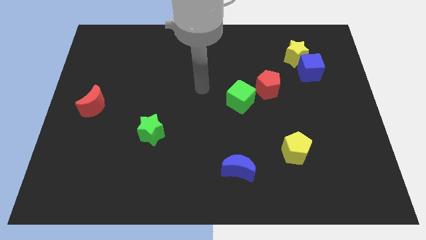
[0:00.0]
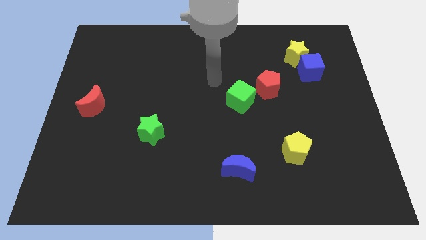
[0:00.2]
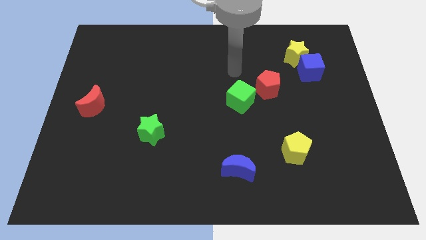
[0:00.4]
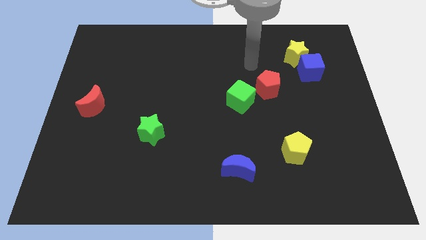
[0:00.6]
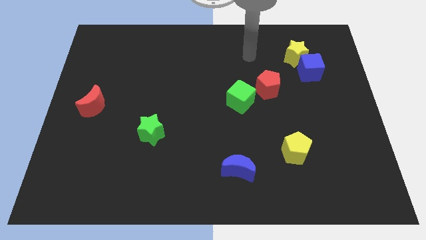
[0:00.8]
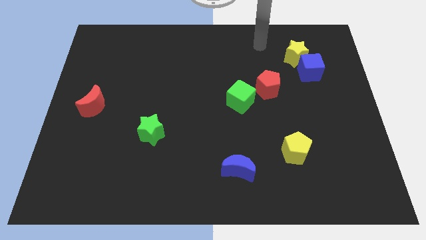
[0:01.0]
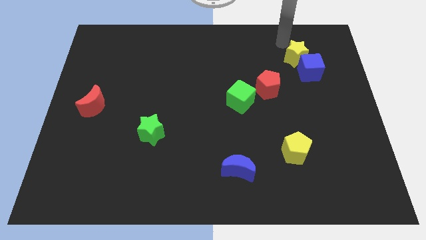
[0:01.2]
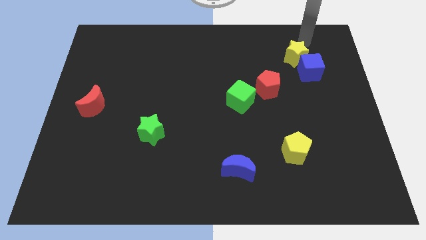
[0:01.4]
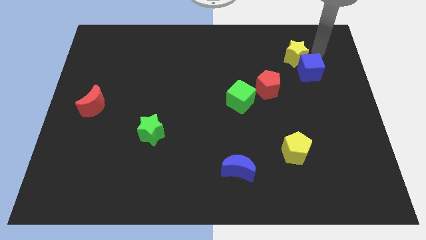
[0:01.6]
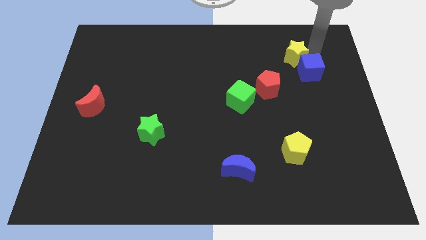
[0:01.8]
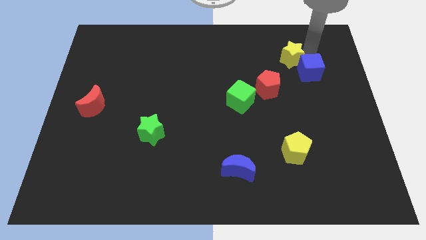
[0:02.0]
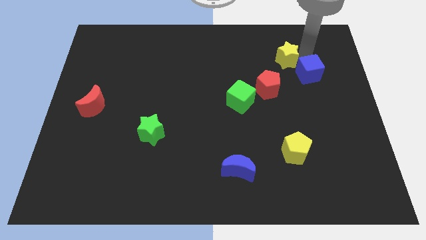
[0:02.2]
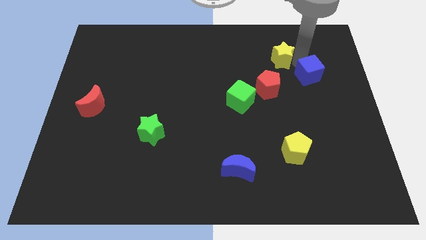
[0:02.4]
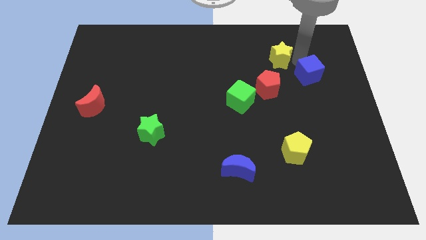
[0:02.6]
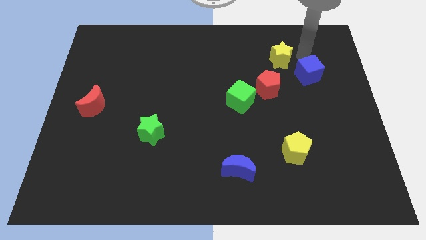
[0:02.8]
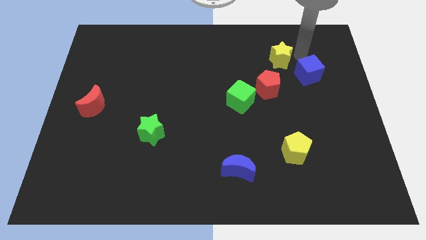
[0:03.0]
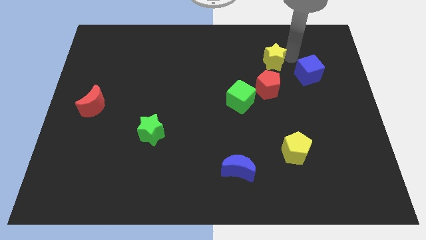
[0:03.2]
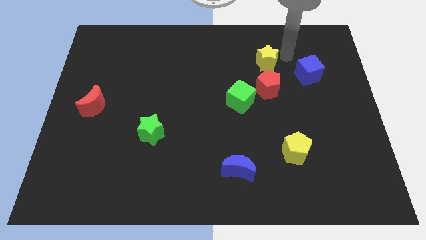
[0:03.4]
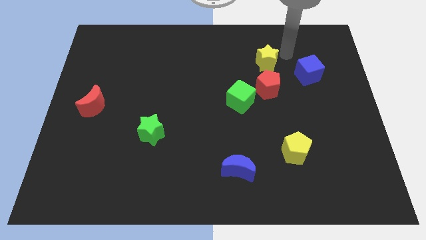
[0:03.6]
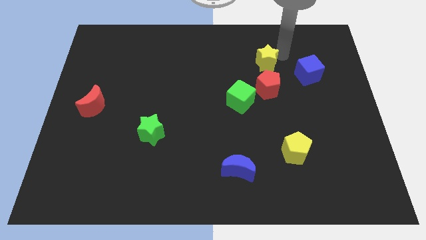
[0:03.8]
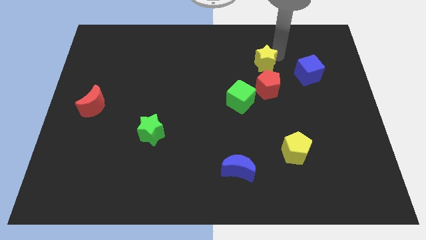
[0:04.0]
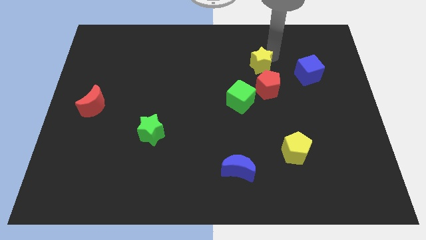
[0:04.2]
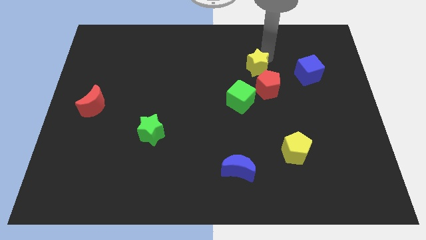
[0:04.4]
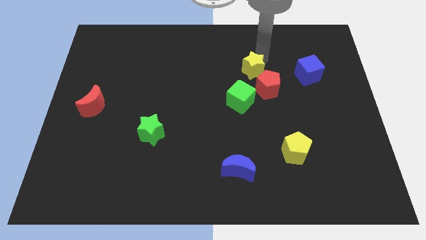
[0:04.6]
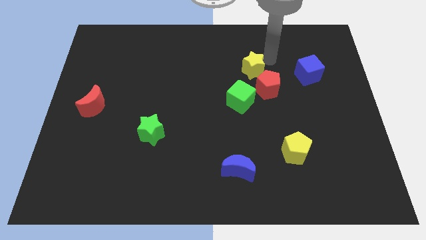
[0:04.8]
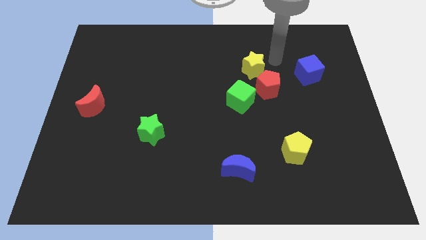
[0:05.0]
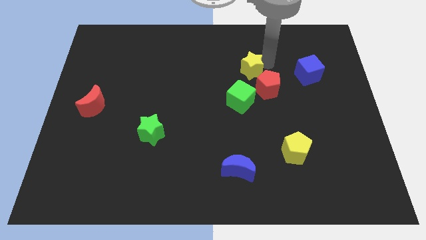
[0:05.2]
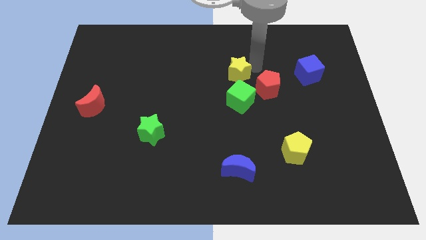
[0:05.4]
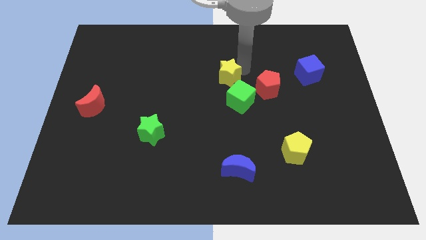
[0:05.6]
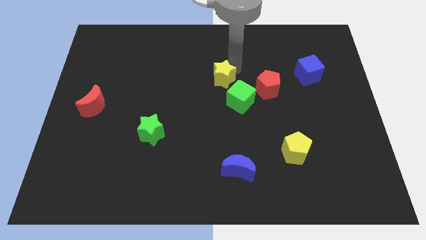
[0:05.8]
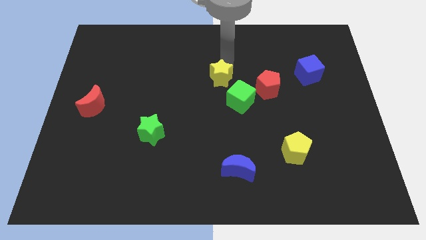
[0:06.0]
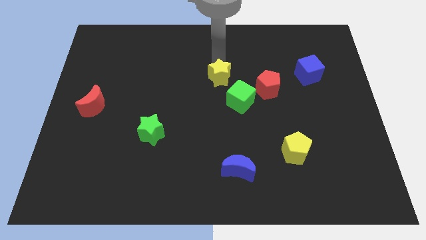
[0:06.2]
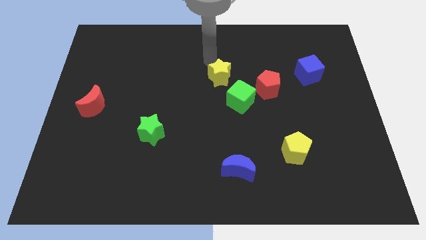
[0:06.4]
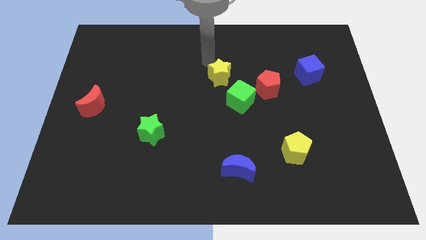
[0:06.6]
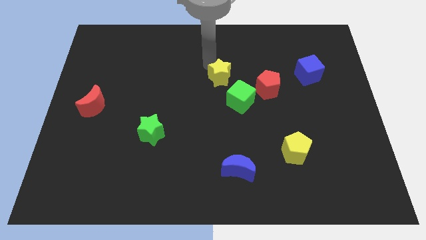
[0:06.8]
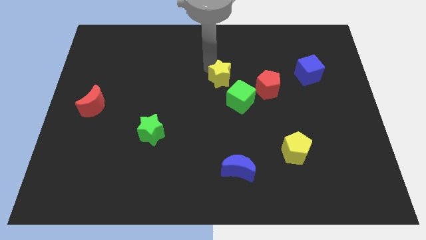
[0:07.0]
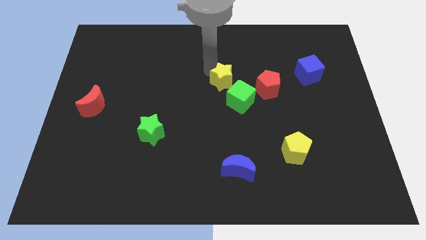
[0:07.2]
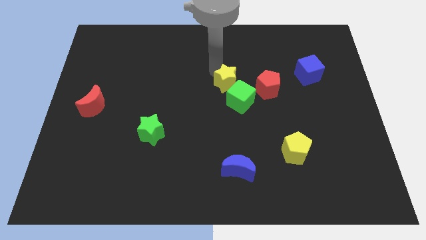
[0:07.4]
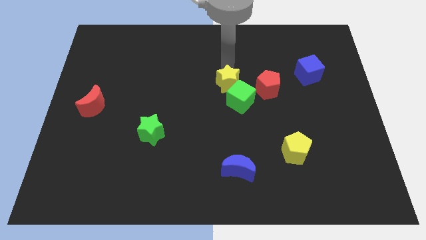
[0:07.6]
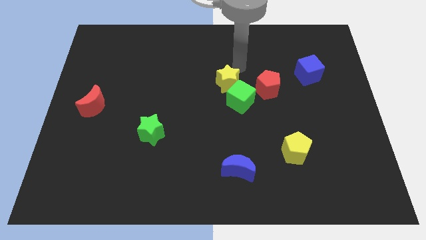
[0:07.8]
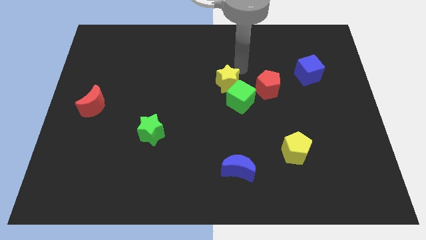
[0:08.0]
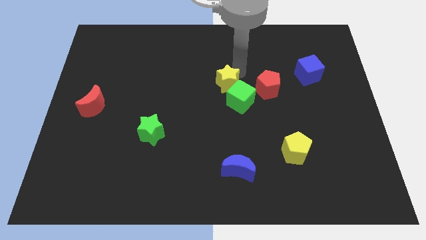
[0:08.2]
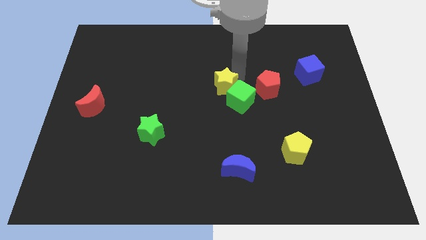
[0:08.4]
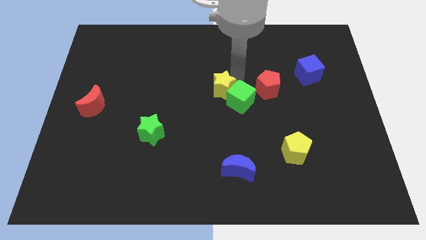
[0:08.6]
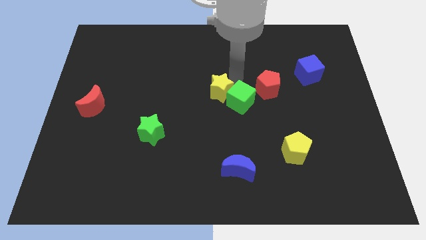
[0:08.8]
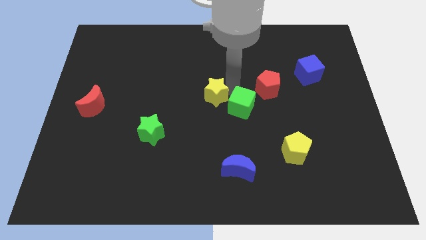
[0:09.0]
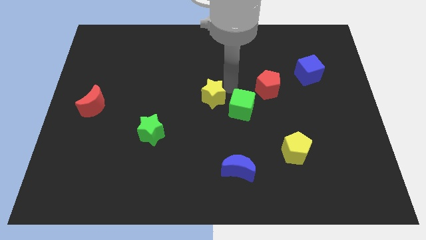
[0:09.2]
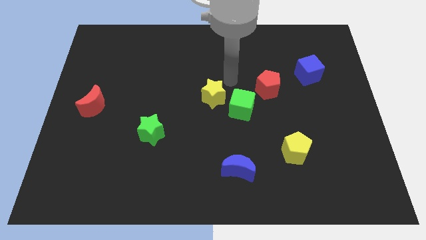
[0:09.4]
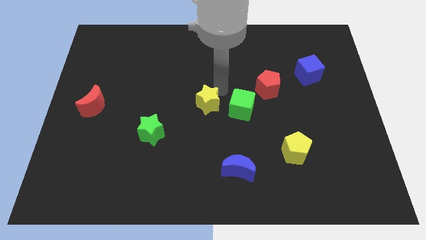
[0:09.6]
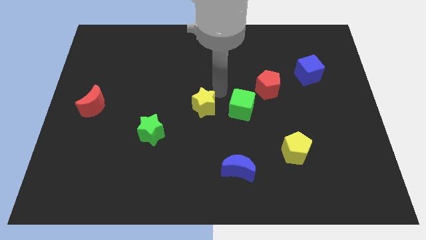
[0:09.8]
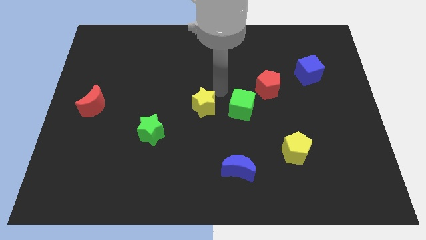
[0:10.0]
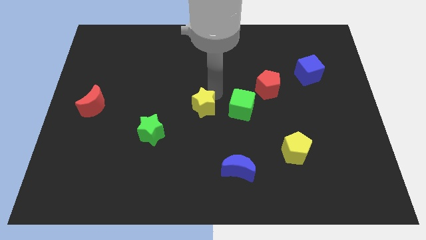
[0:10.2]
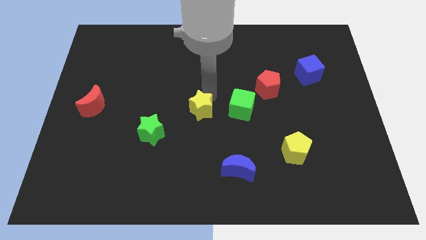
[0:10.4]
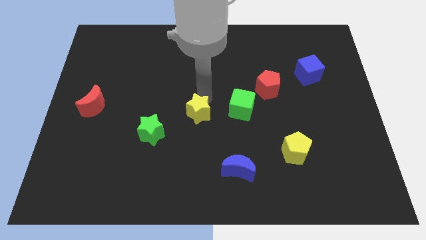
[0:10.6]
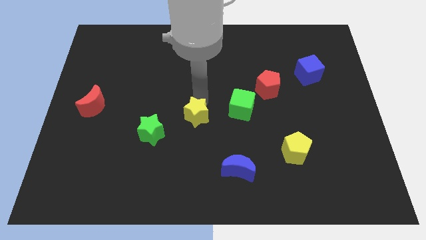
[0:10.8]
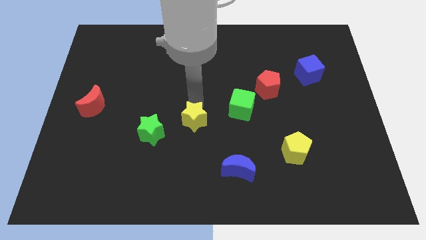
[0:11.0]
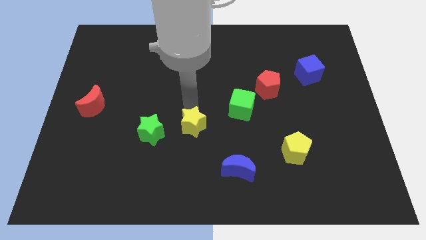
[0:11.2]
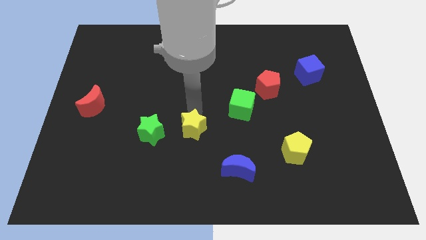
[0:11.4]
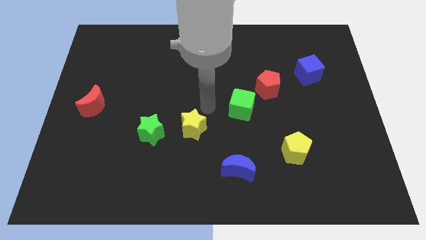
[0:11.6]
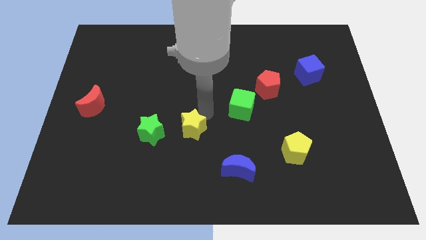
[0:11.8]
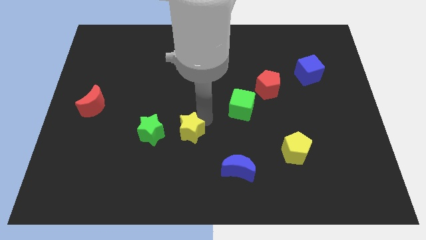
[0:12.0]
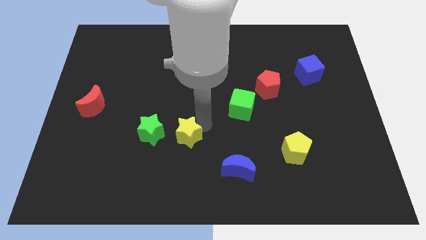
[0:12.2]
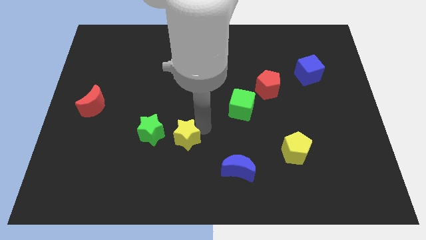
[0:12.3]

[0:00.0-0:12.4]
move the yellow star to the bottom right of the green star

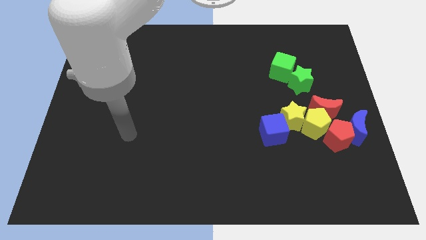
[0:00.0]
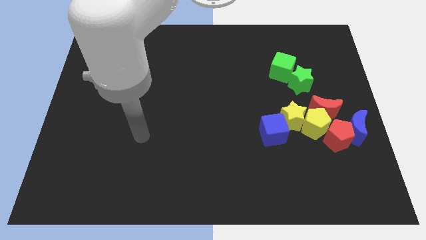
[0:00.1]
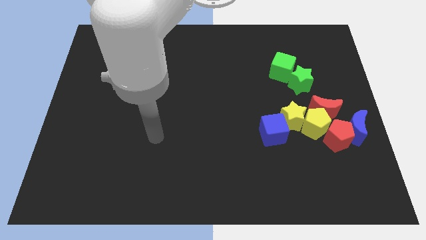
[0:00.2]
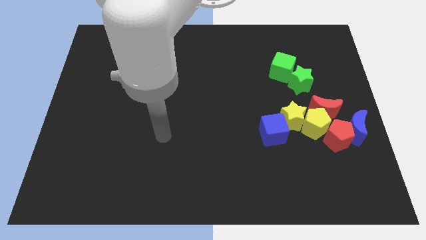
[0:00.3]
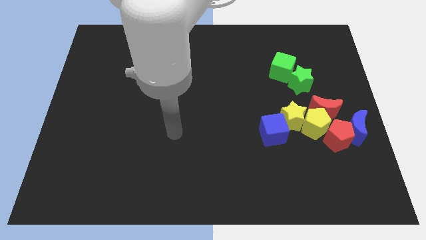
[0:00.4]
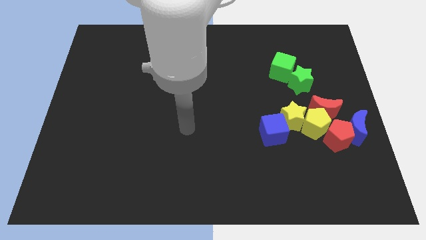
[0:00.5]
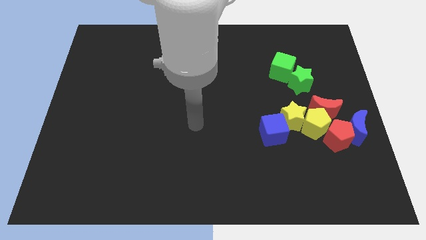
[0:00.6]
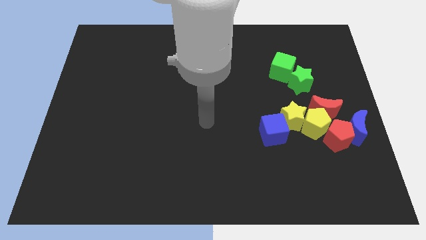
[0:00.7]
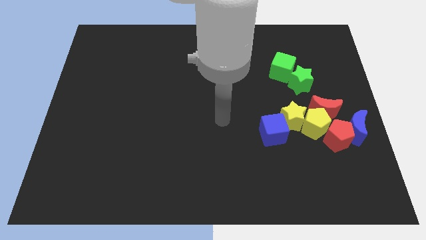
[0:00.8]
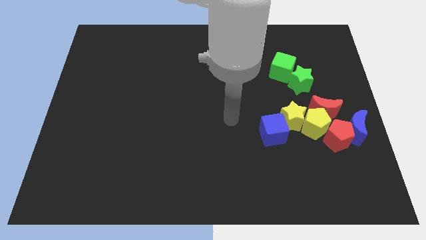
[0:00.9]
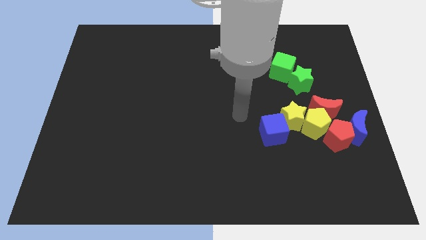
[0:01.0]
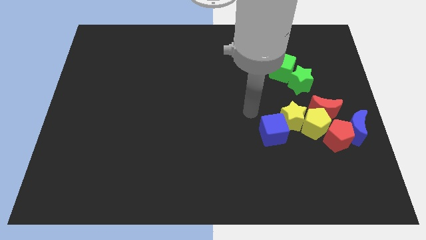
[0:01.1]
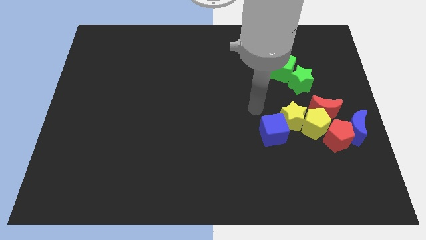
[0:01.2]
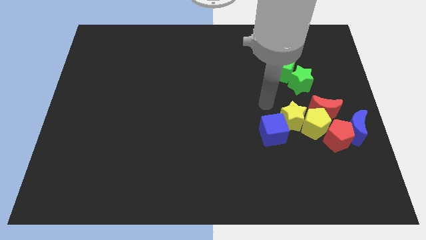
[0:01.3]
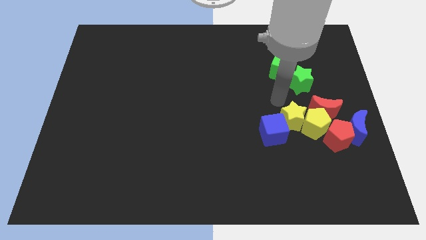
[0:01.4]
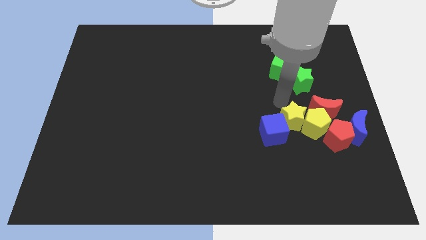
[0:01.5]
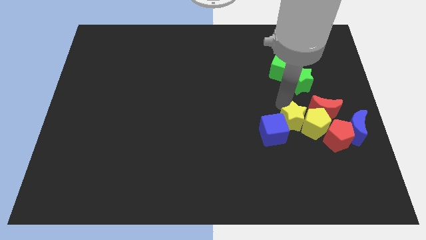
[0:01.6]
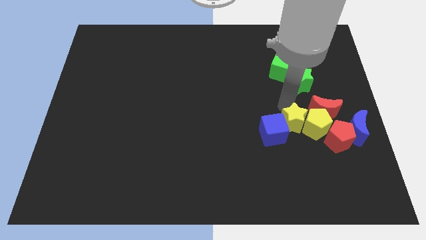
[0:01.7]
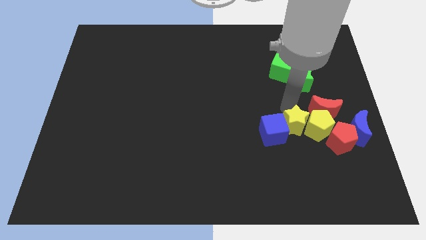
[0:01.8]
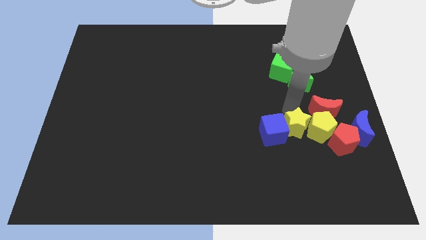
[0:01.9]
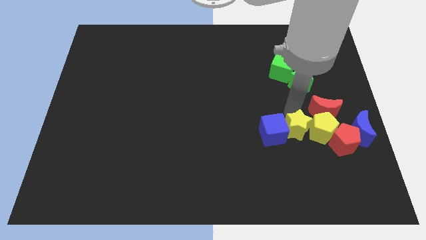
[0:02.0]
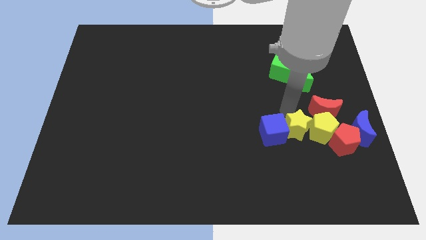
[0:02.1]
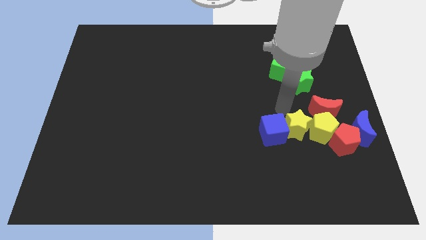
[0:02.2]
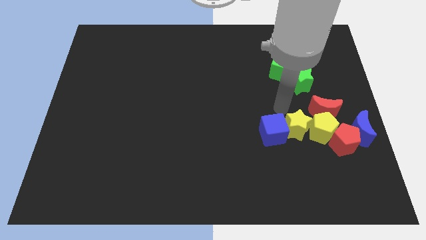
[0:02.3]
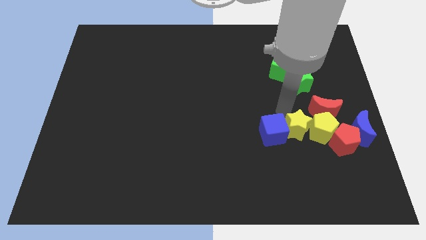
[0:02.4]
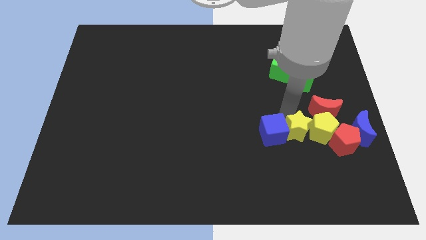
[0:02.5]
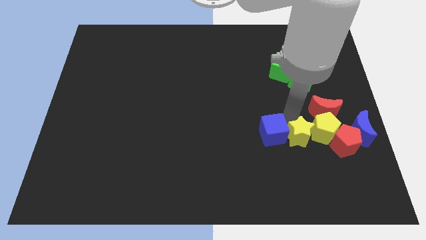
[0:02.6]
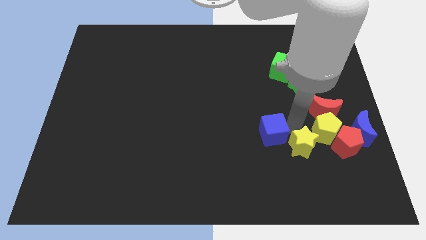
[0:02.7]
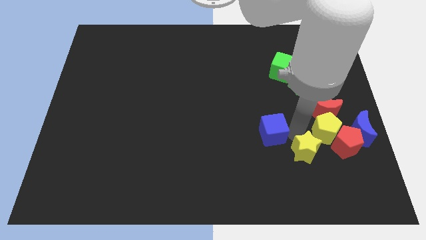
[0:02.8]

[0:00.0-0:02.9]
push the yellow star diagonally down and to the left of the red pentagon
